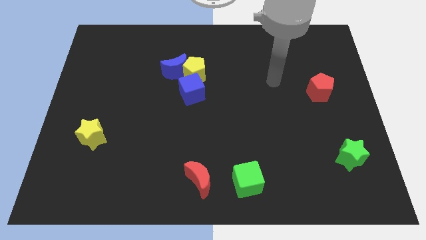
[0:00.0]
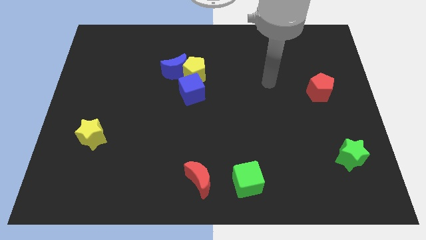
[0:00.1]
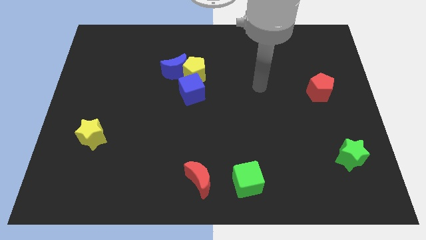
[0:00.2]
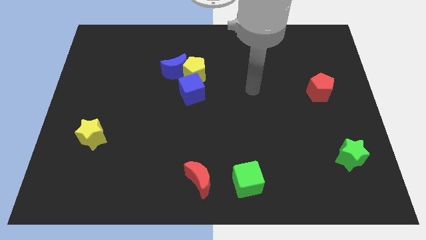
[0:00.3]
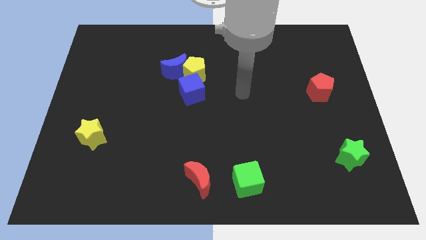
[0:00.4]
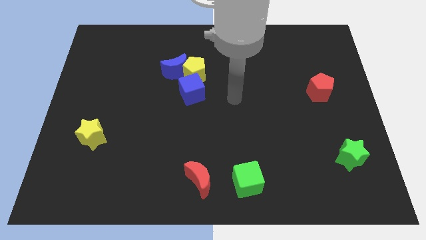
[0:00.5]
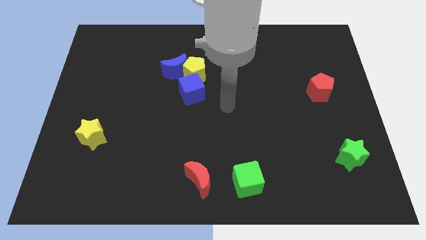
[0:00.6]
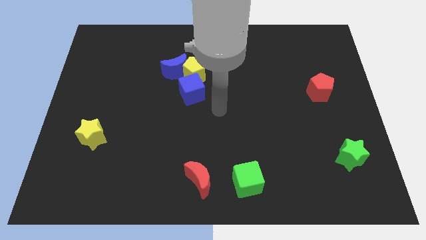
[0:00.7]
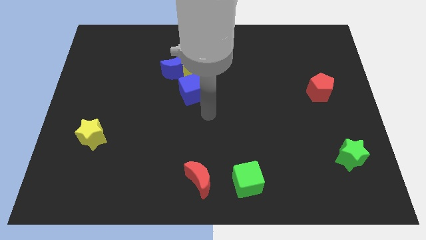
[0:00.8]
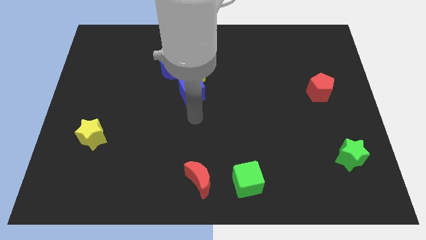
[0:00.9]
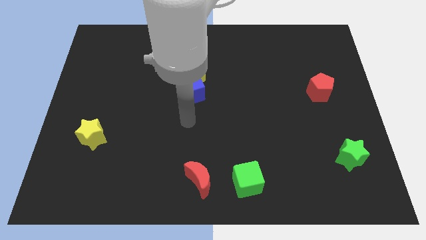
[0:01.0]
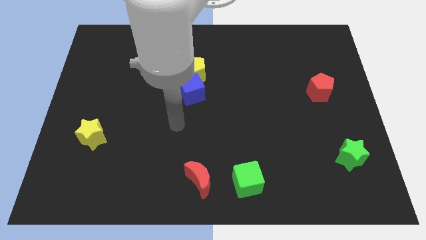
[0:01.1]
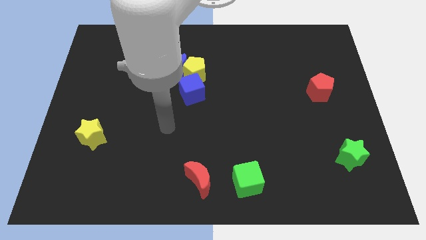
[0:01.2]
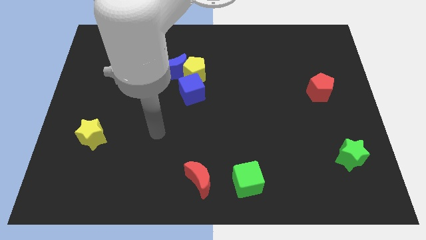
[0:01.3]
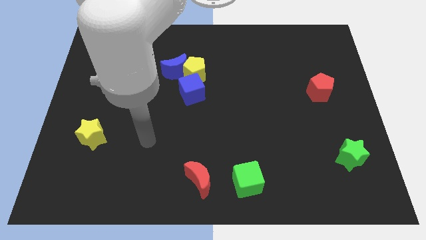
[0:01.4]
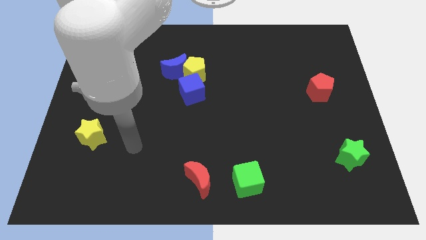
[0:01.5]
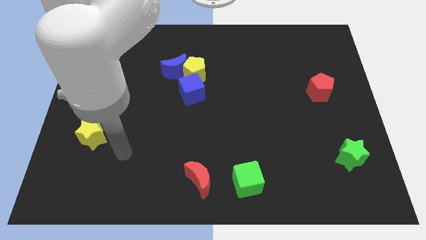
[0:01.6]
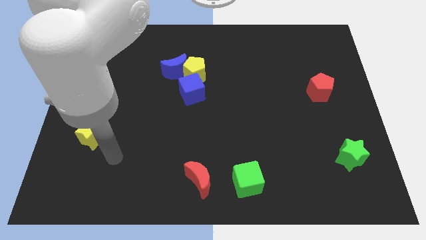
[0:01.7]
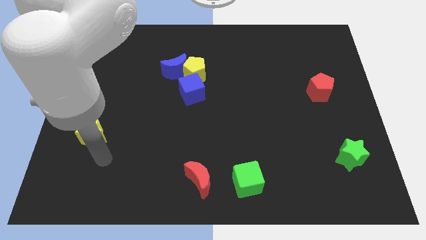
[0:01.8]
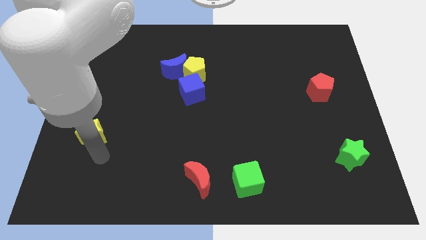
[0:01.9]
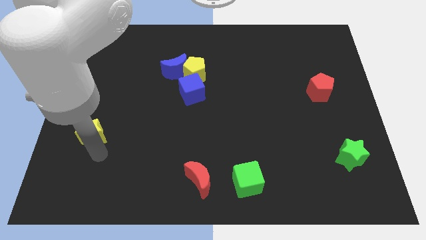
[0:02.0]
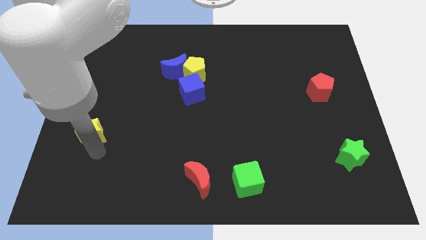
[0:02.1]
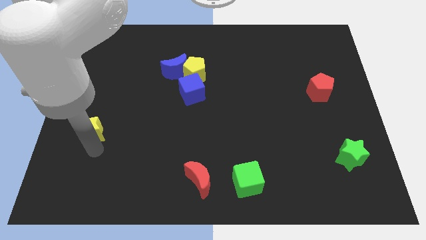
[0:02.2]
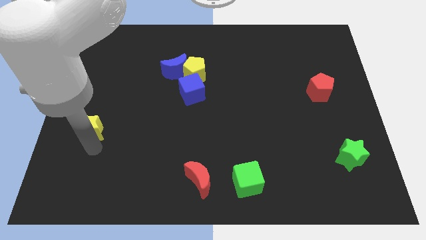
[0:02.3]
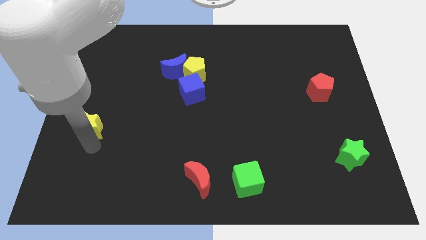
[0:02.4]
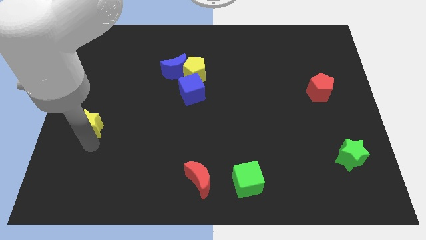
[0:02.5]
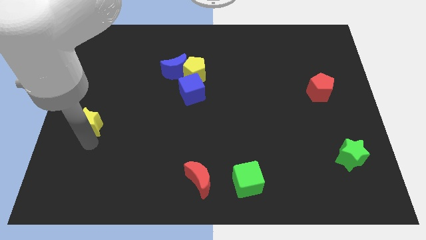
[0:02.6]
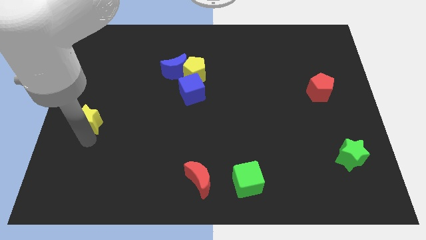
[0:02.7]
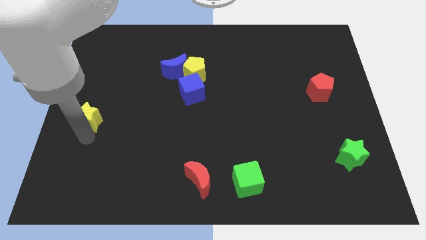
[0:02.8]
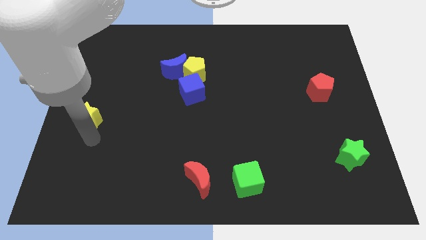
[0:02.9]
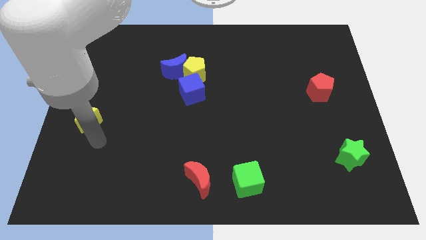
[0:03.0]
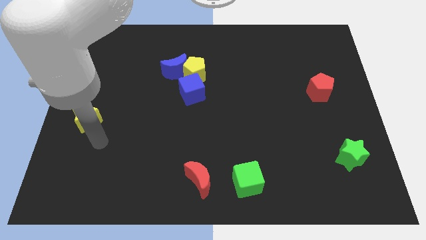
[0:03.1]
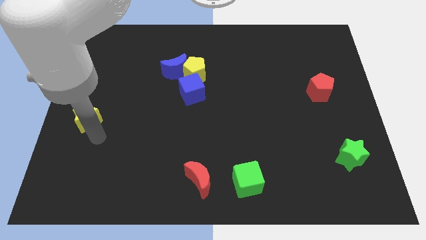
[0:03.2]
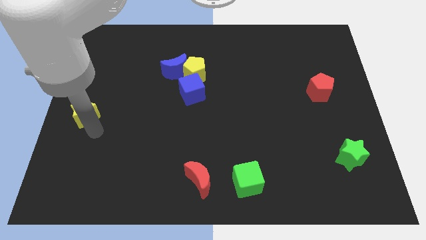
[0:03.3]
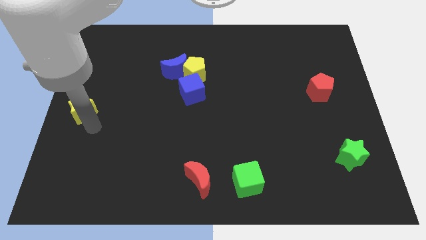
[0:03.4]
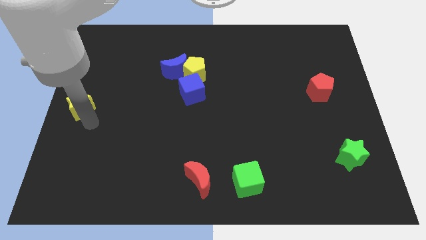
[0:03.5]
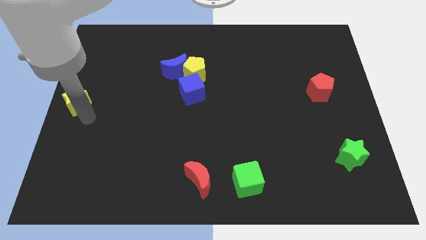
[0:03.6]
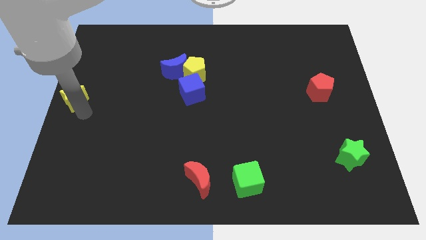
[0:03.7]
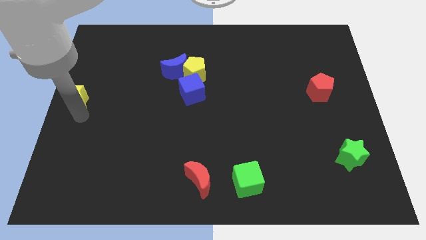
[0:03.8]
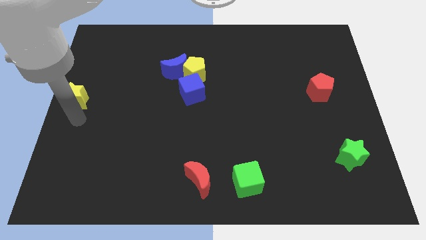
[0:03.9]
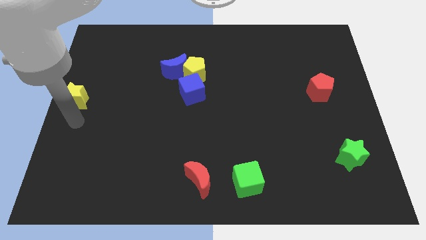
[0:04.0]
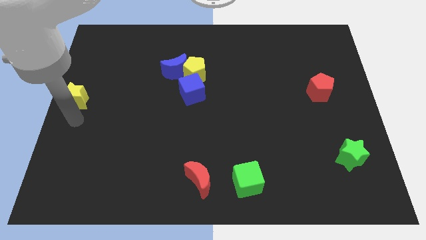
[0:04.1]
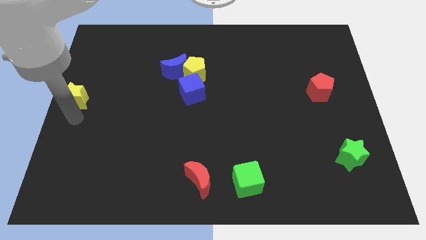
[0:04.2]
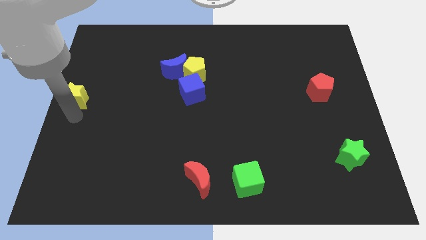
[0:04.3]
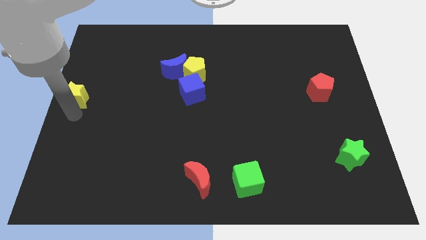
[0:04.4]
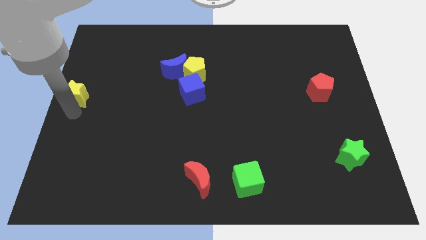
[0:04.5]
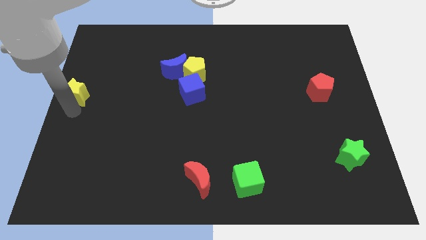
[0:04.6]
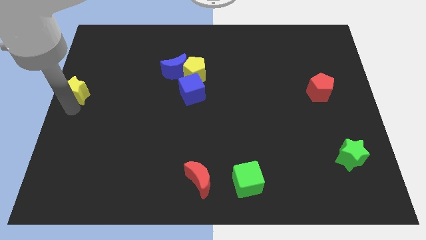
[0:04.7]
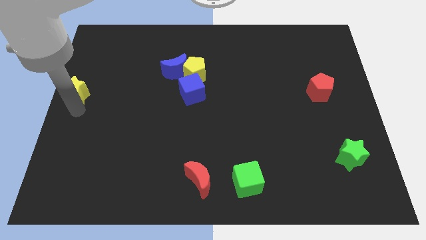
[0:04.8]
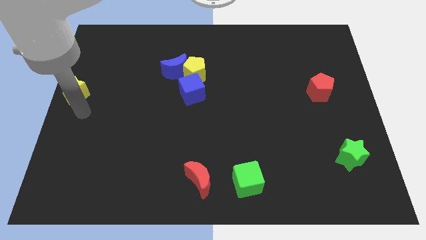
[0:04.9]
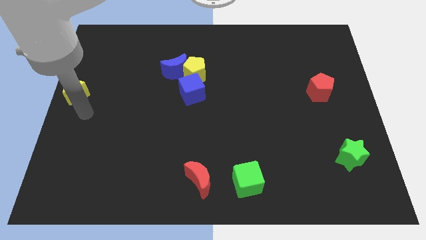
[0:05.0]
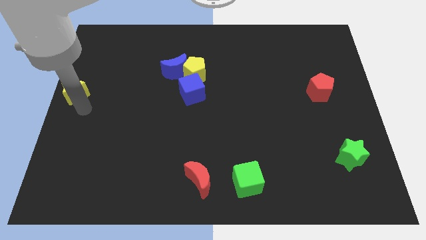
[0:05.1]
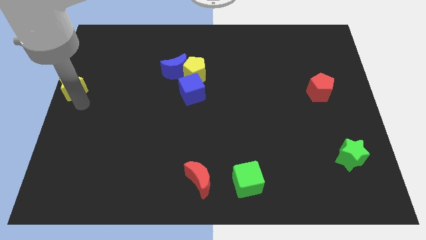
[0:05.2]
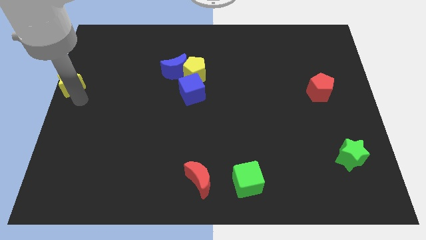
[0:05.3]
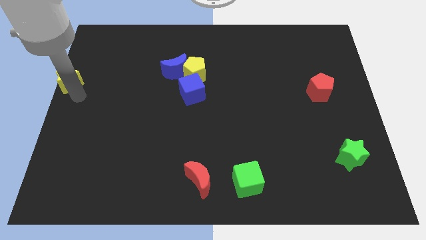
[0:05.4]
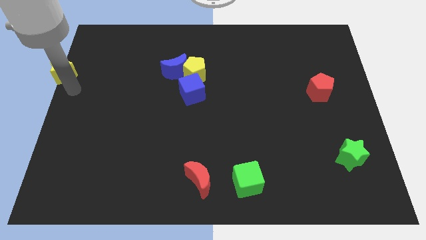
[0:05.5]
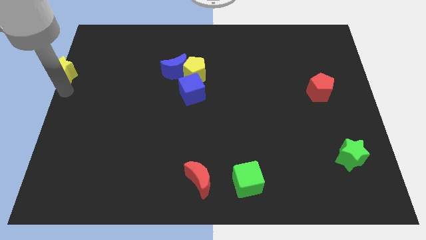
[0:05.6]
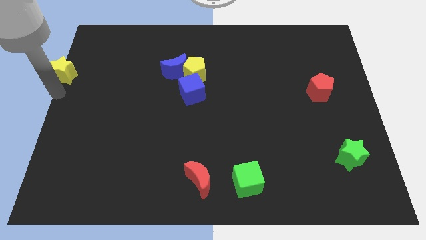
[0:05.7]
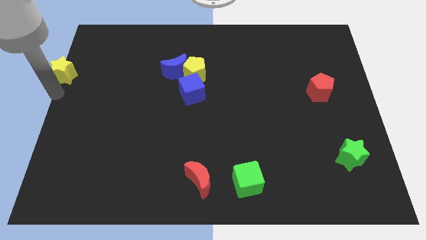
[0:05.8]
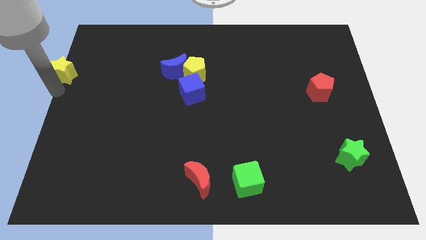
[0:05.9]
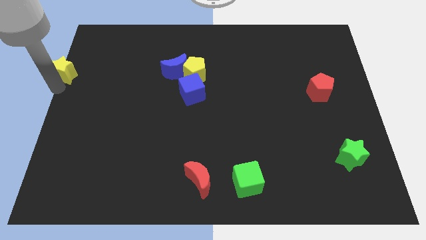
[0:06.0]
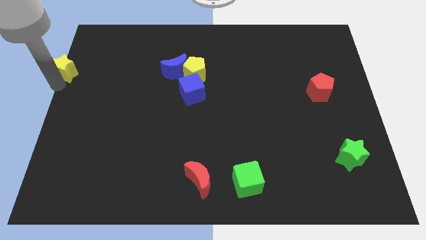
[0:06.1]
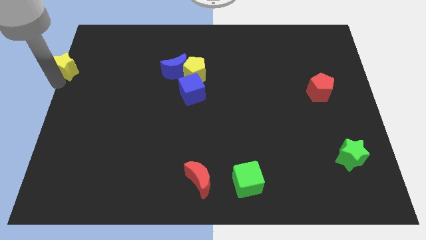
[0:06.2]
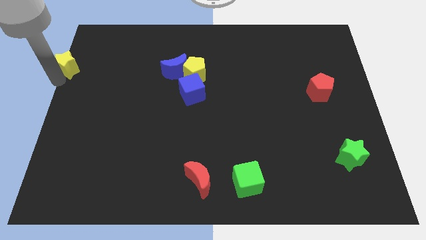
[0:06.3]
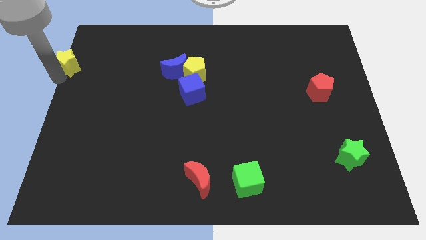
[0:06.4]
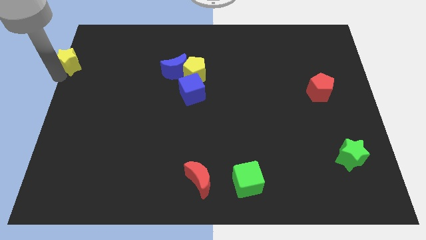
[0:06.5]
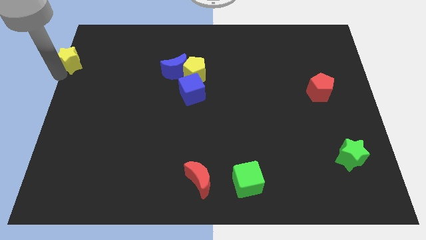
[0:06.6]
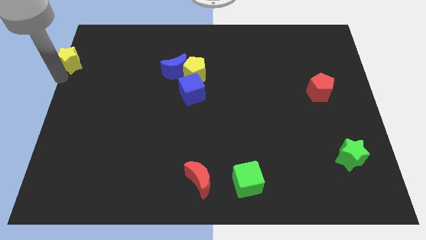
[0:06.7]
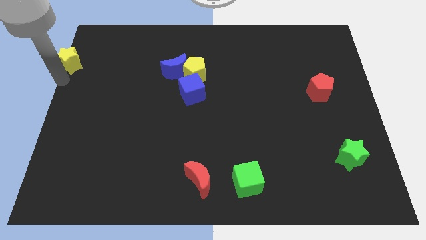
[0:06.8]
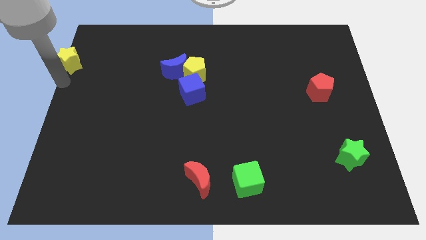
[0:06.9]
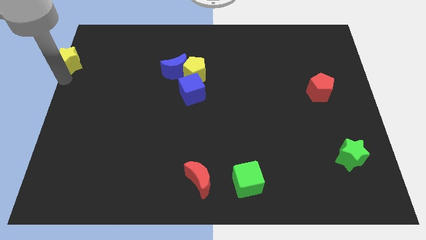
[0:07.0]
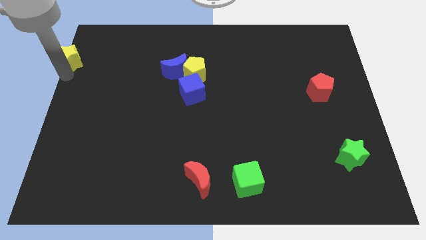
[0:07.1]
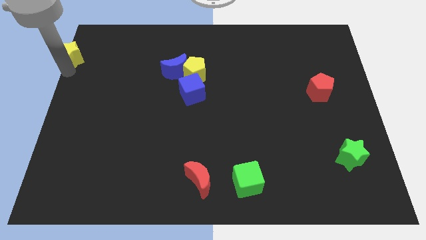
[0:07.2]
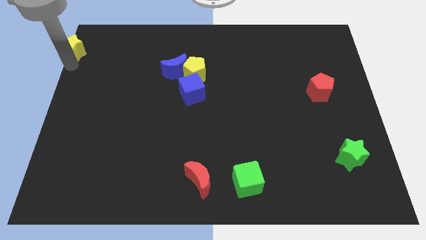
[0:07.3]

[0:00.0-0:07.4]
move the yellow star to the top left of the board
